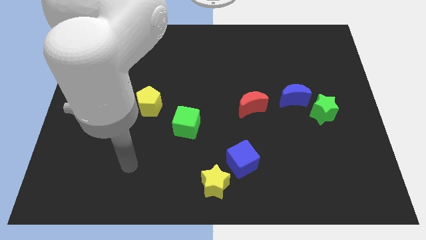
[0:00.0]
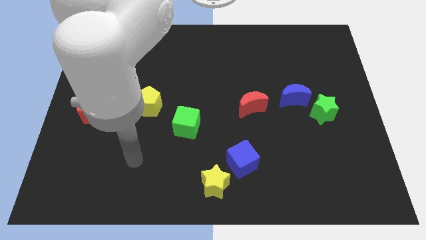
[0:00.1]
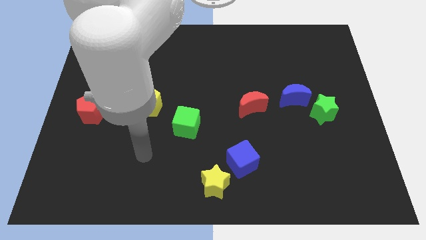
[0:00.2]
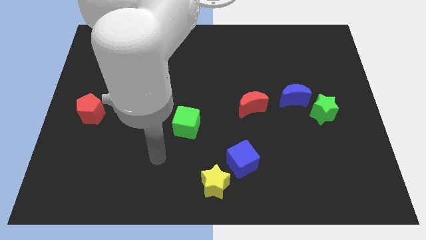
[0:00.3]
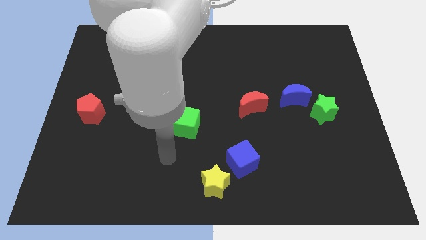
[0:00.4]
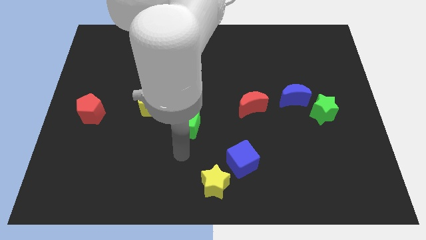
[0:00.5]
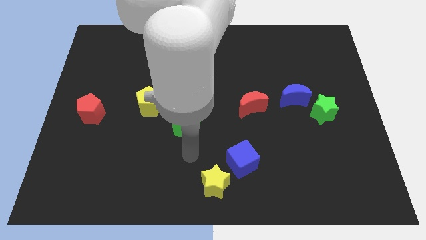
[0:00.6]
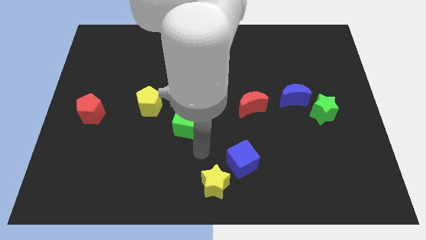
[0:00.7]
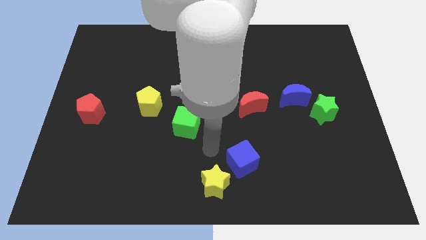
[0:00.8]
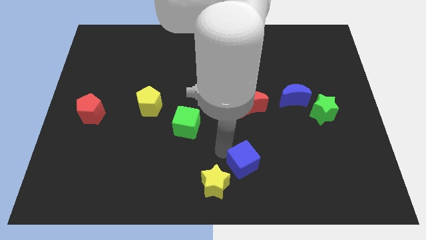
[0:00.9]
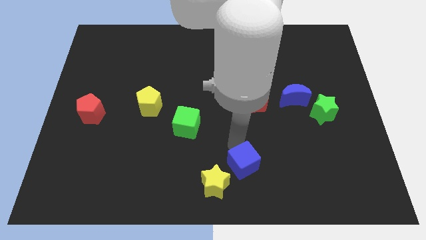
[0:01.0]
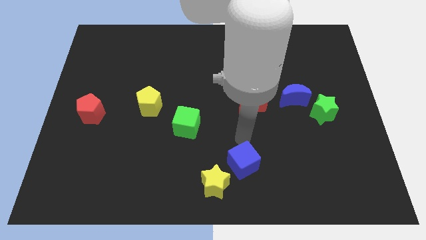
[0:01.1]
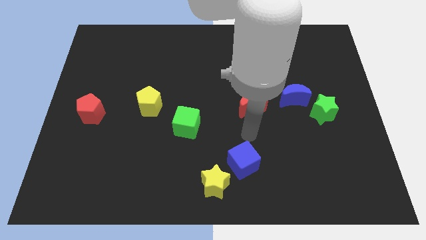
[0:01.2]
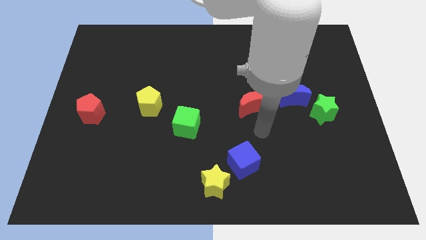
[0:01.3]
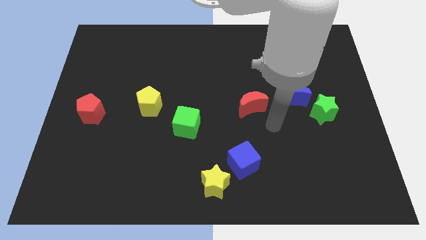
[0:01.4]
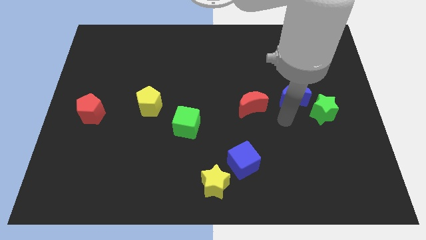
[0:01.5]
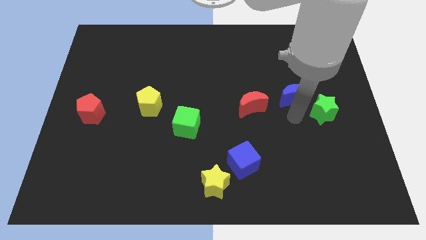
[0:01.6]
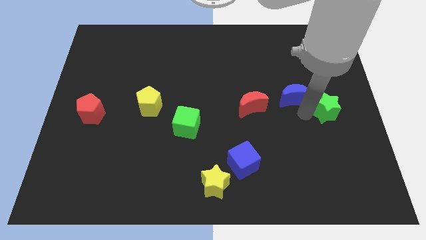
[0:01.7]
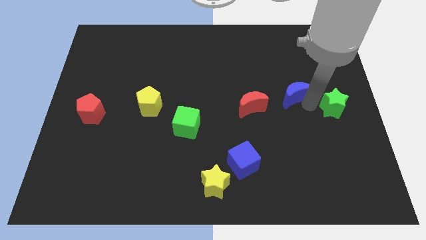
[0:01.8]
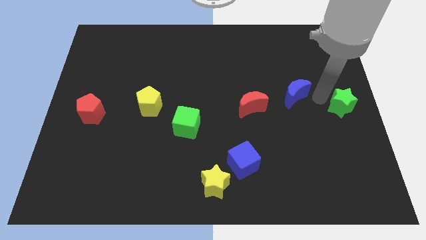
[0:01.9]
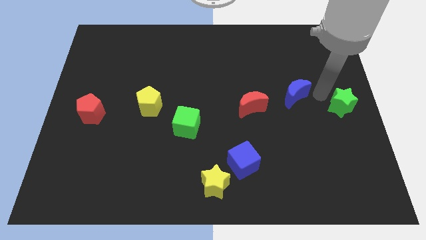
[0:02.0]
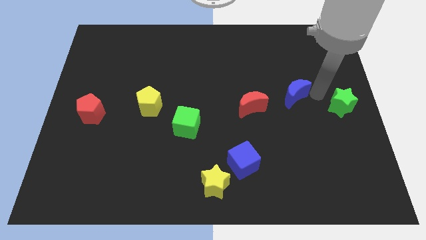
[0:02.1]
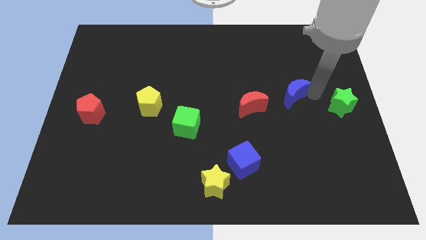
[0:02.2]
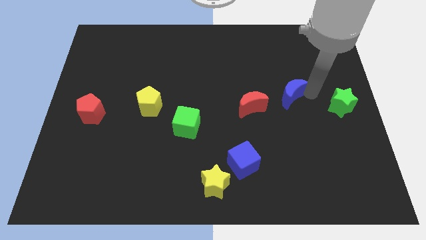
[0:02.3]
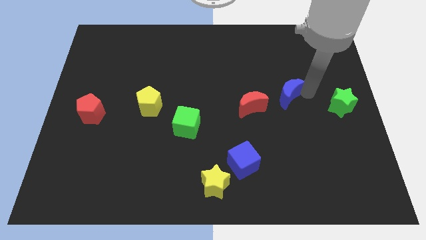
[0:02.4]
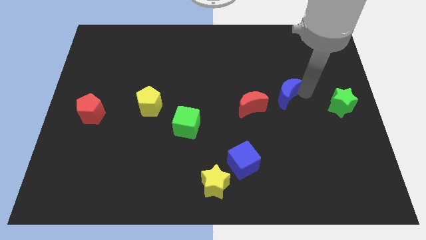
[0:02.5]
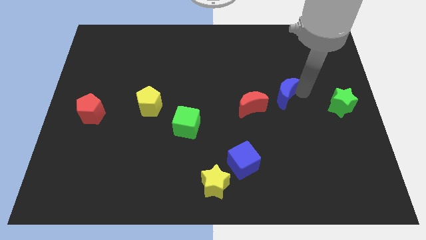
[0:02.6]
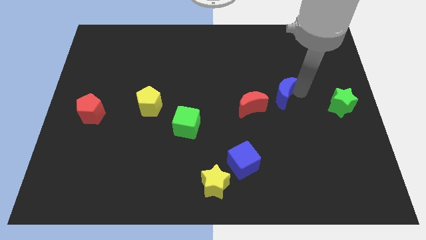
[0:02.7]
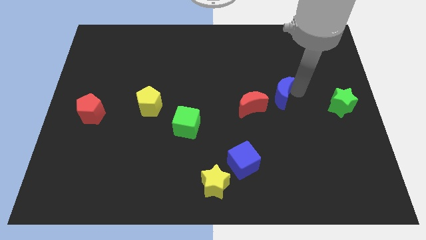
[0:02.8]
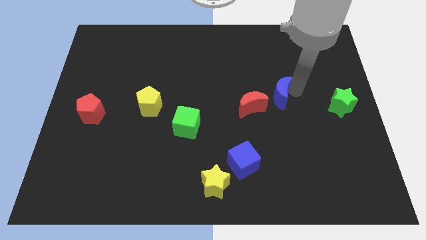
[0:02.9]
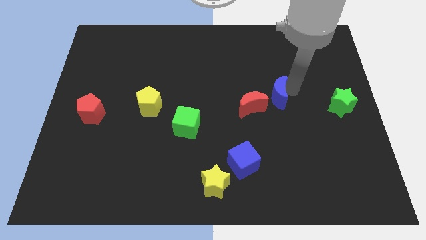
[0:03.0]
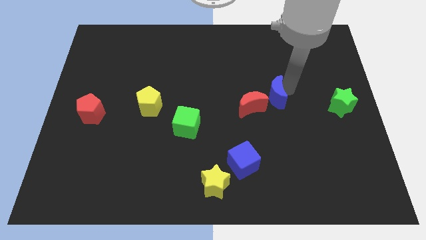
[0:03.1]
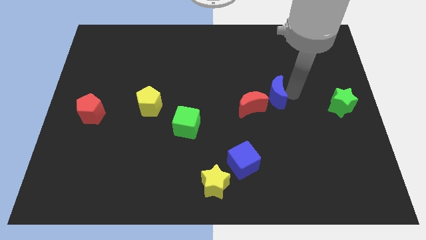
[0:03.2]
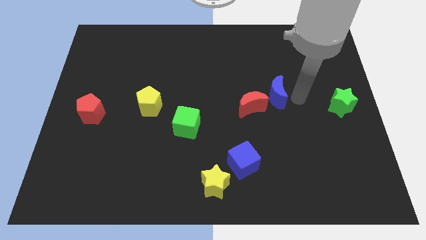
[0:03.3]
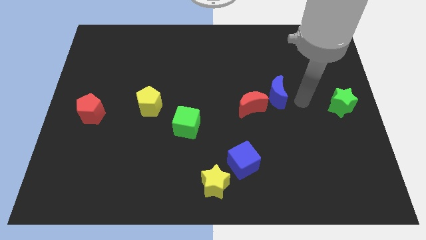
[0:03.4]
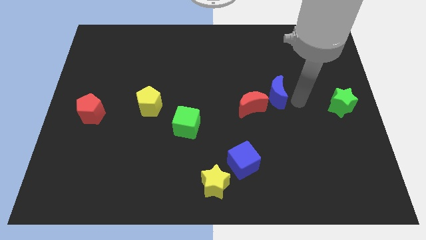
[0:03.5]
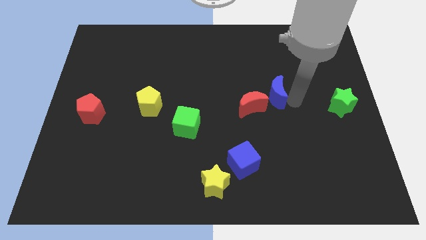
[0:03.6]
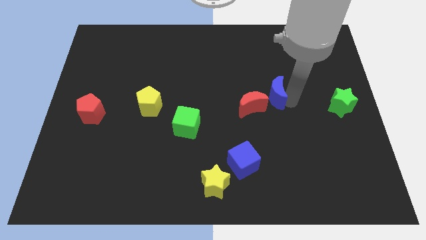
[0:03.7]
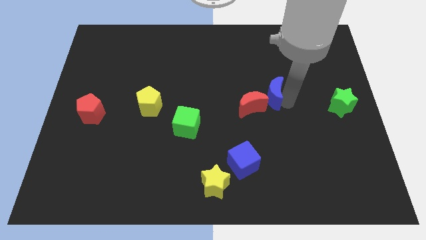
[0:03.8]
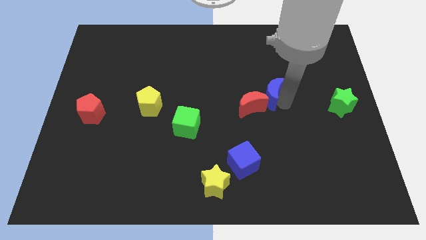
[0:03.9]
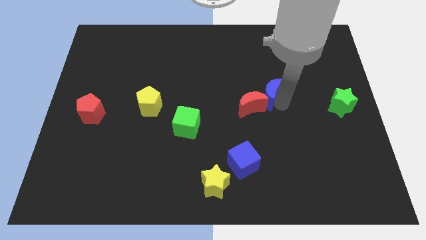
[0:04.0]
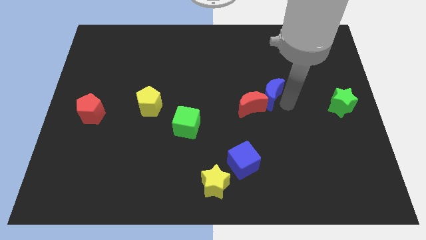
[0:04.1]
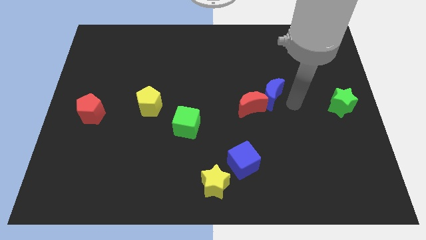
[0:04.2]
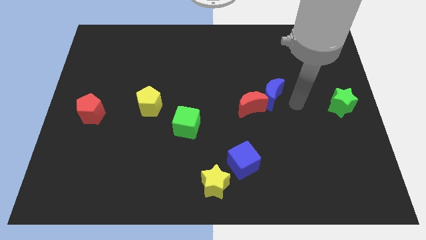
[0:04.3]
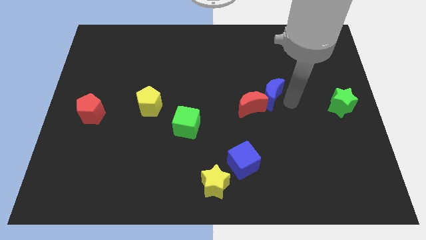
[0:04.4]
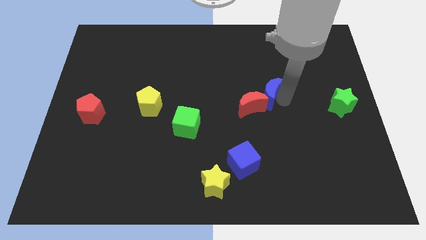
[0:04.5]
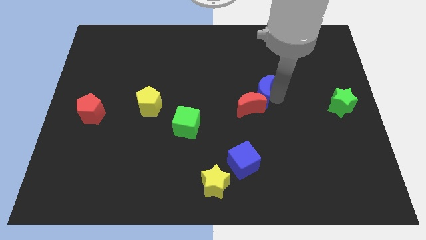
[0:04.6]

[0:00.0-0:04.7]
move the blue moon a bit left

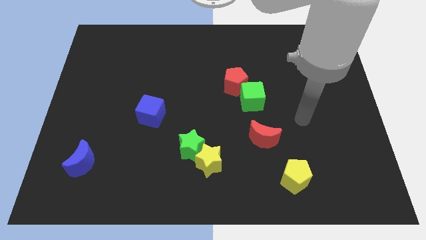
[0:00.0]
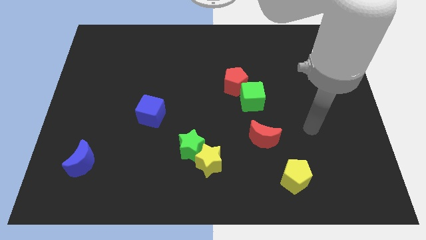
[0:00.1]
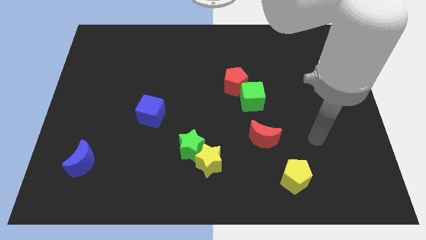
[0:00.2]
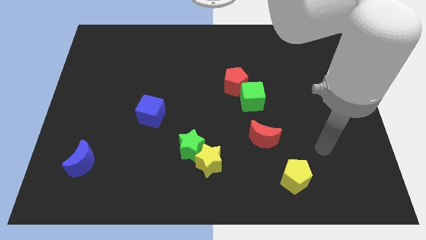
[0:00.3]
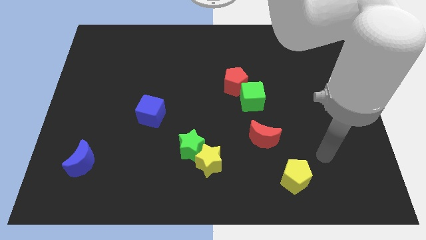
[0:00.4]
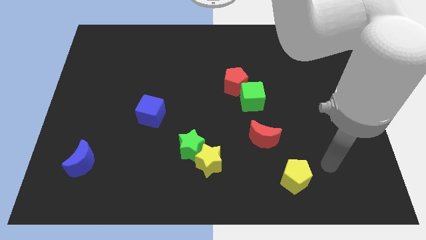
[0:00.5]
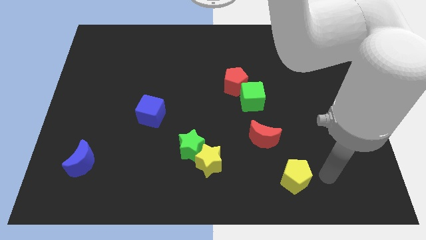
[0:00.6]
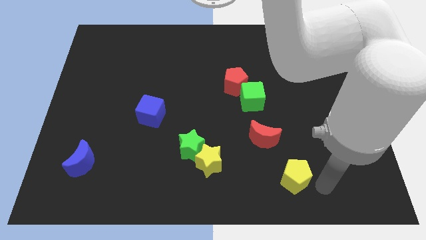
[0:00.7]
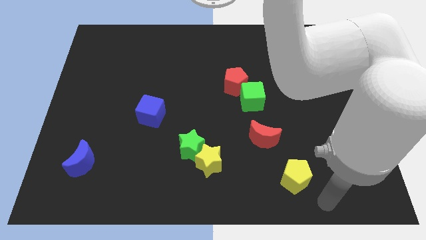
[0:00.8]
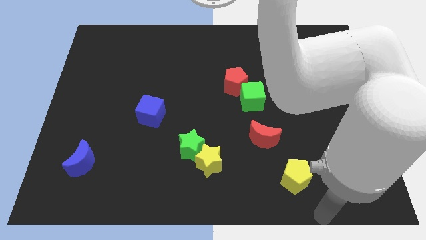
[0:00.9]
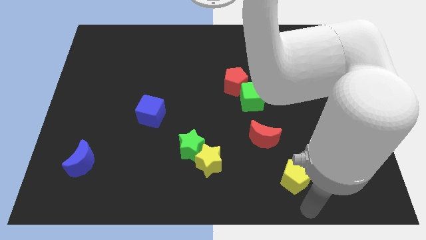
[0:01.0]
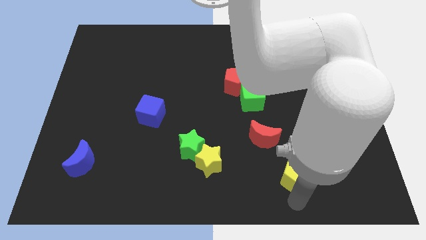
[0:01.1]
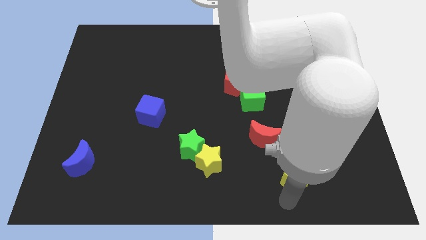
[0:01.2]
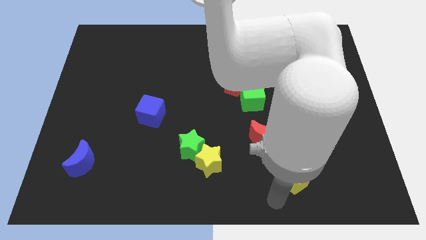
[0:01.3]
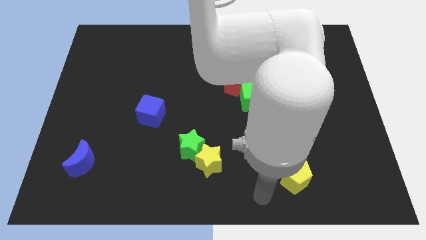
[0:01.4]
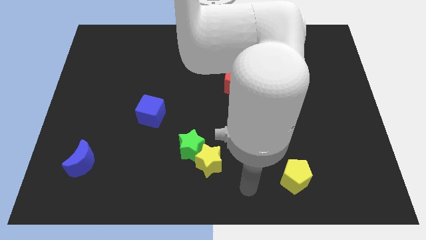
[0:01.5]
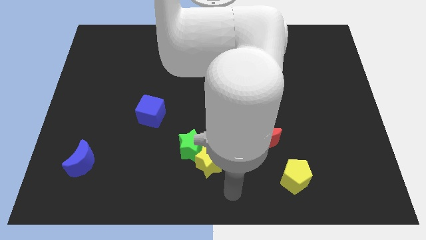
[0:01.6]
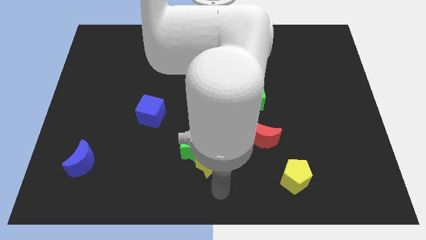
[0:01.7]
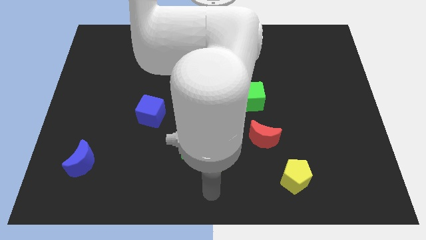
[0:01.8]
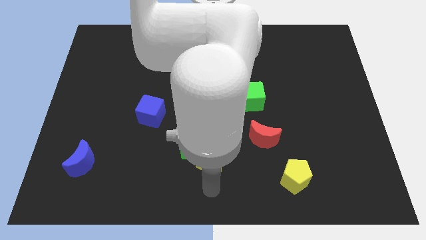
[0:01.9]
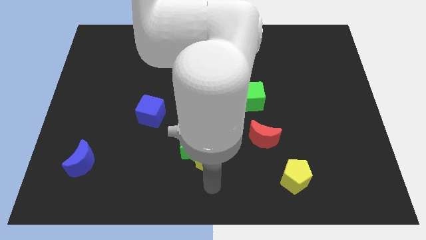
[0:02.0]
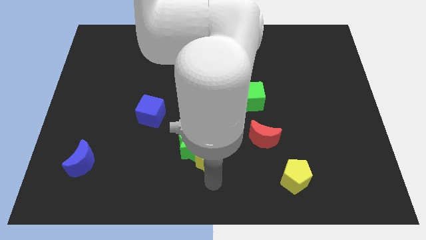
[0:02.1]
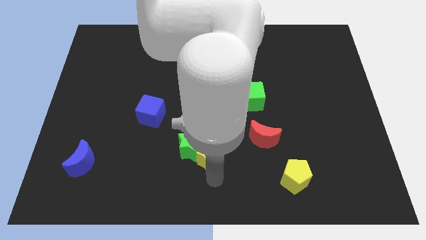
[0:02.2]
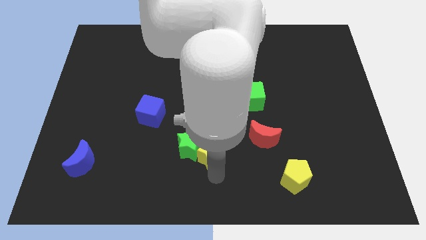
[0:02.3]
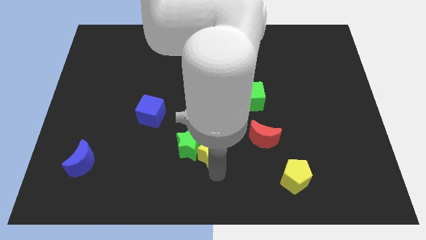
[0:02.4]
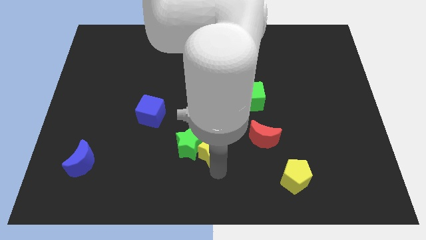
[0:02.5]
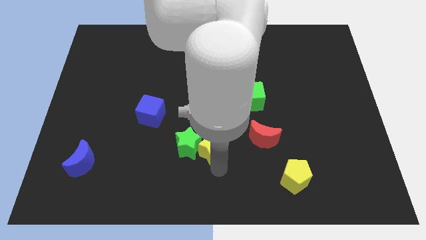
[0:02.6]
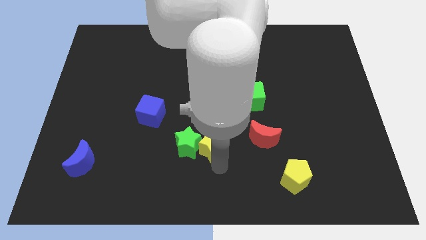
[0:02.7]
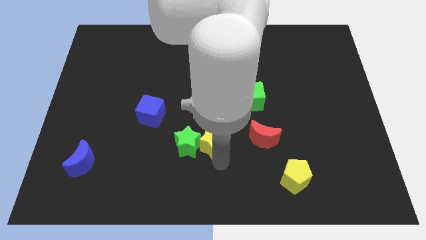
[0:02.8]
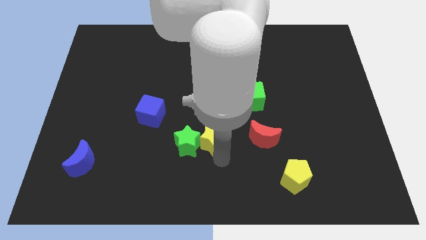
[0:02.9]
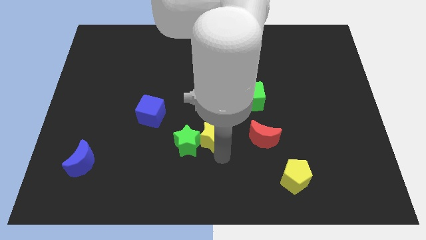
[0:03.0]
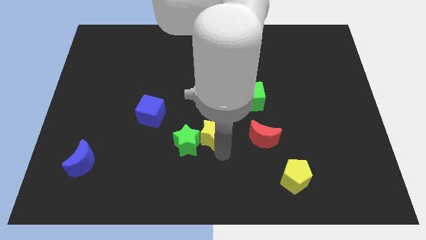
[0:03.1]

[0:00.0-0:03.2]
move the yellow star a little upwards

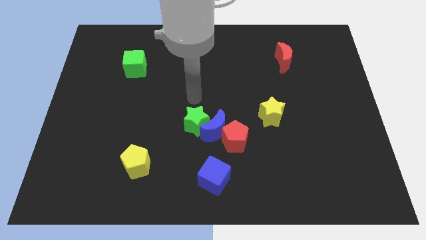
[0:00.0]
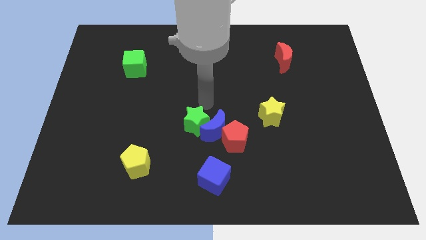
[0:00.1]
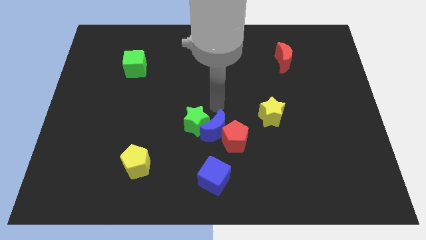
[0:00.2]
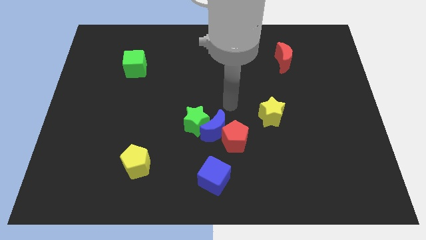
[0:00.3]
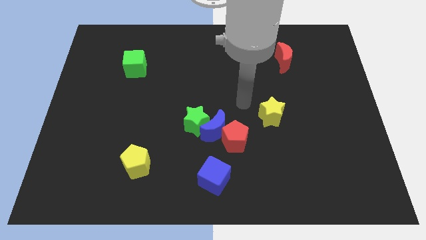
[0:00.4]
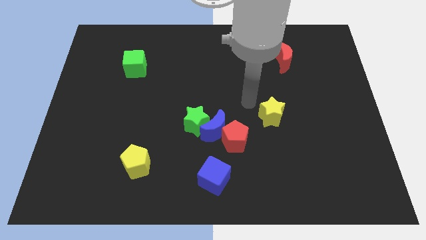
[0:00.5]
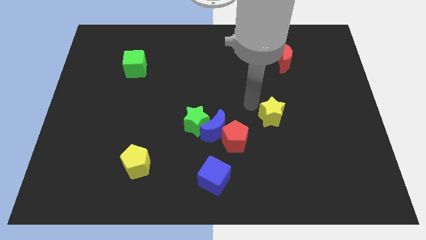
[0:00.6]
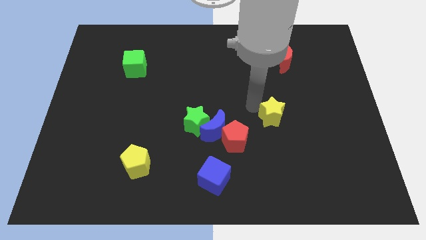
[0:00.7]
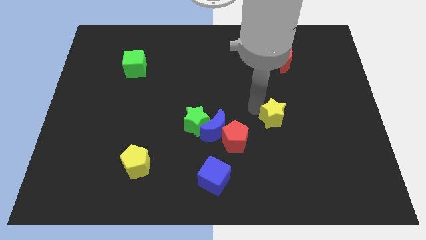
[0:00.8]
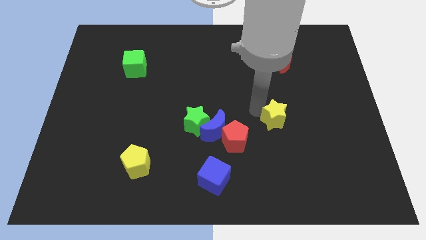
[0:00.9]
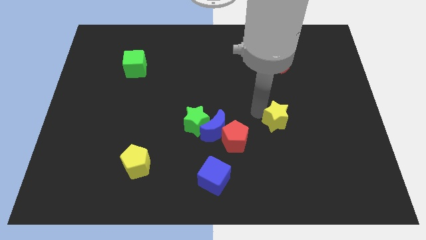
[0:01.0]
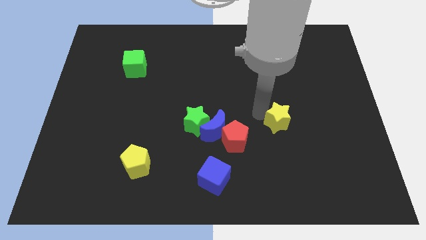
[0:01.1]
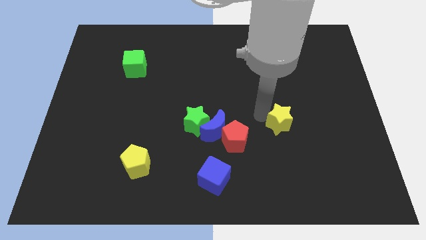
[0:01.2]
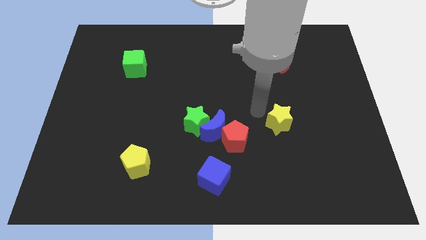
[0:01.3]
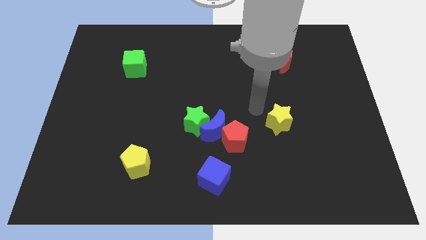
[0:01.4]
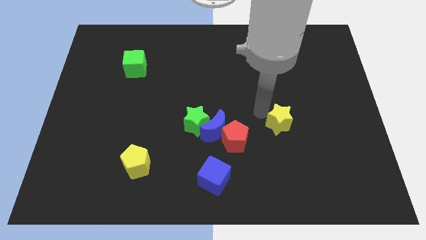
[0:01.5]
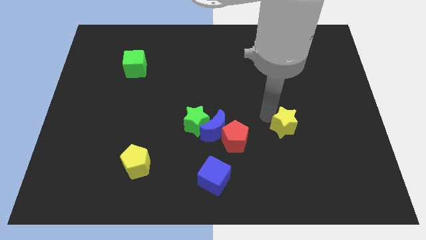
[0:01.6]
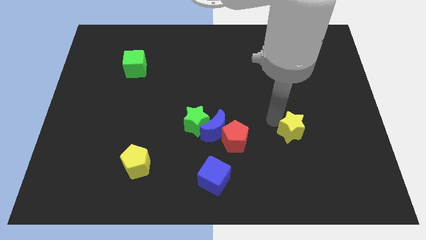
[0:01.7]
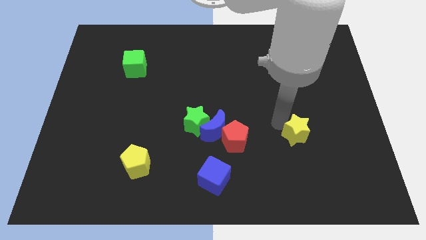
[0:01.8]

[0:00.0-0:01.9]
slightly push the yellow star diagonally downwards and to the right
